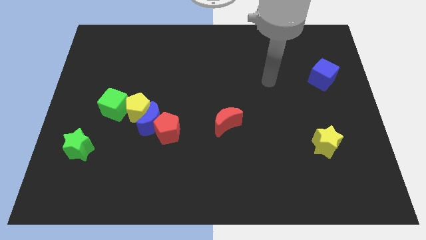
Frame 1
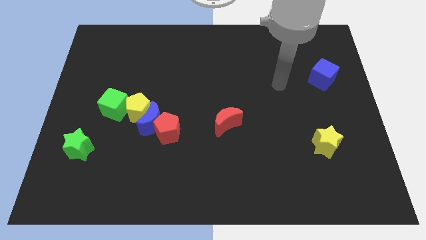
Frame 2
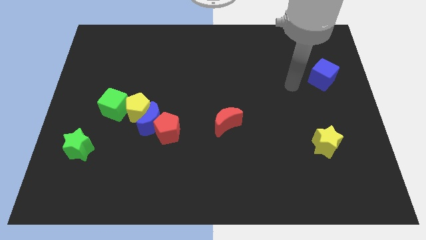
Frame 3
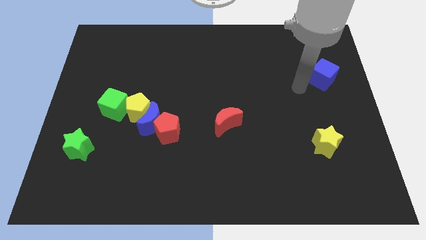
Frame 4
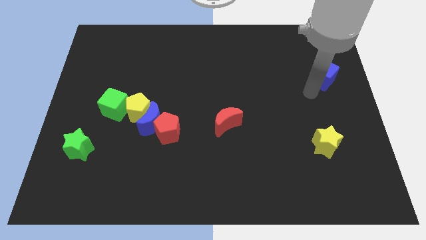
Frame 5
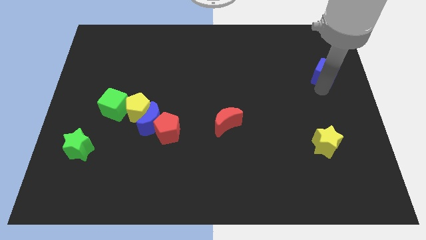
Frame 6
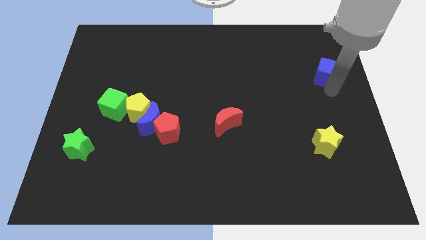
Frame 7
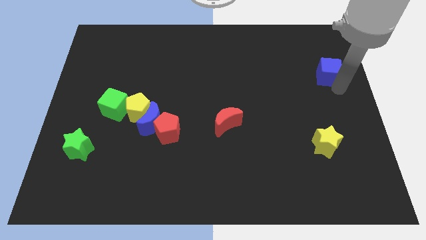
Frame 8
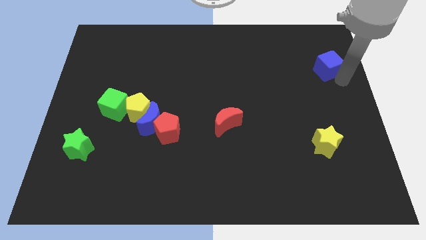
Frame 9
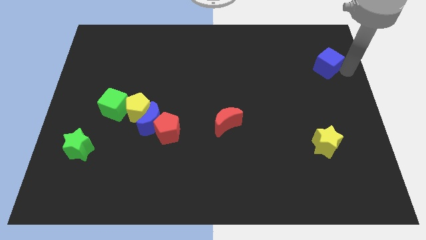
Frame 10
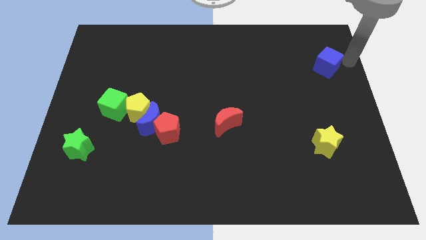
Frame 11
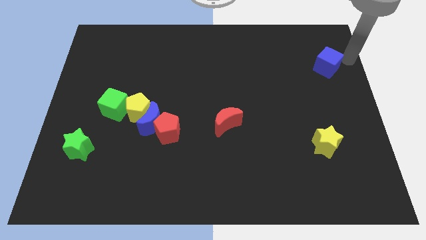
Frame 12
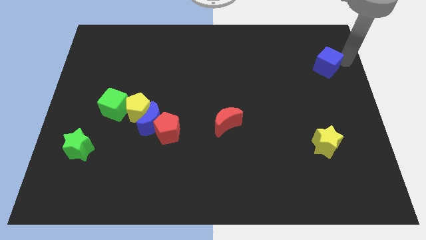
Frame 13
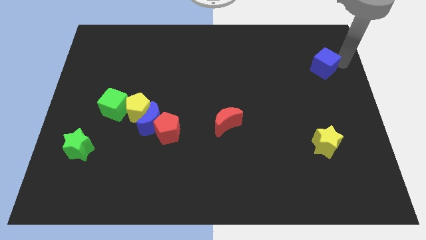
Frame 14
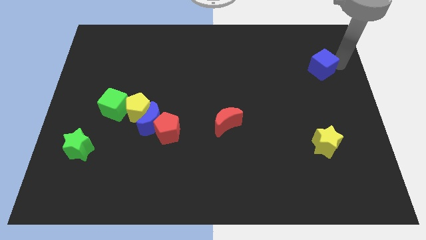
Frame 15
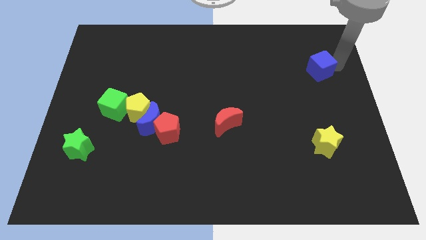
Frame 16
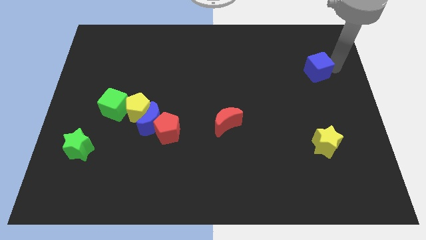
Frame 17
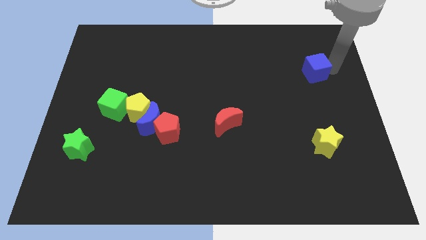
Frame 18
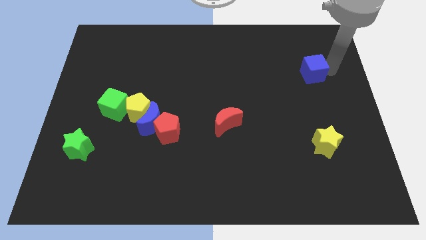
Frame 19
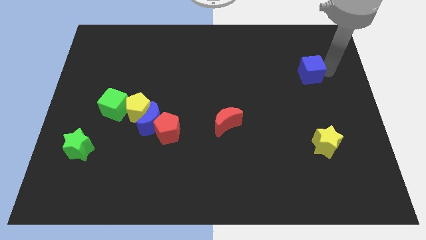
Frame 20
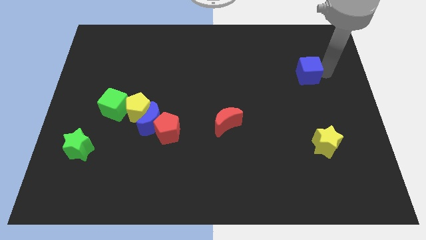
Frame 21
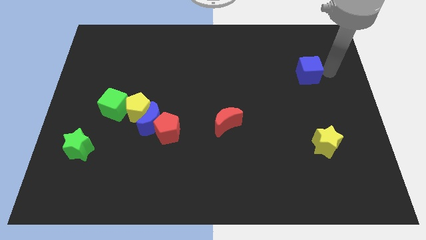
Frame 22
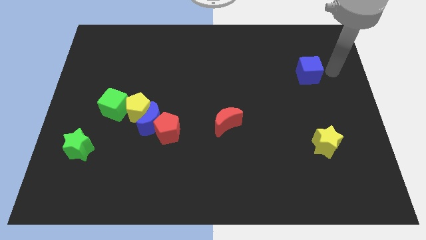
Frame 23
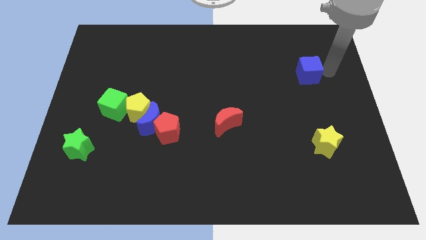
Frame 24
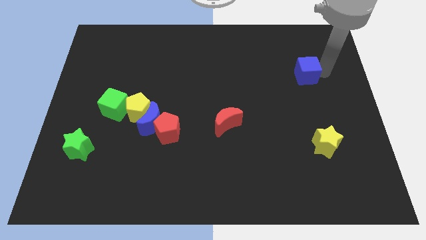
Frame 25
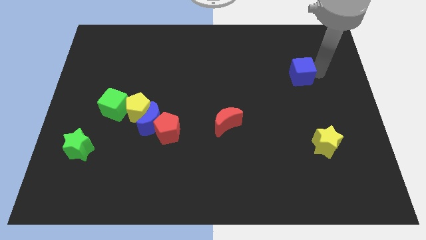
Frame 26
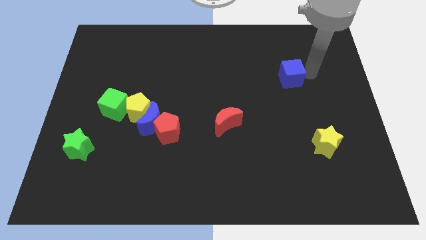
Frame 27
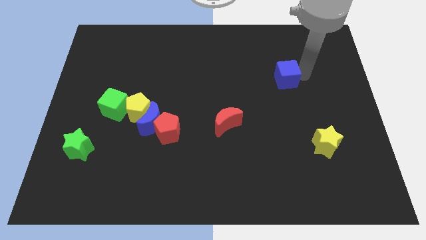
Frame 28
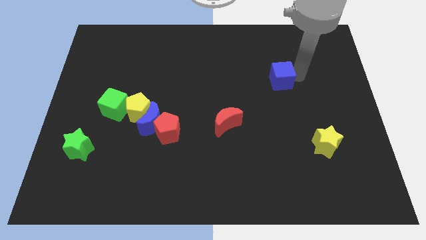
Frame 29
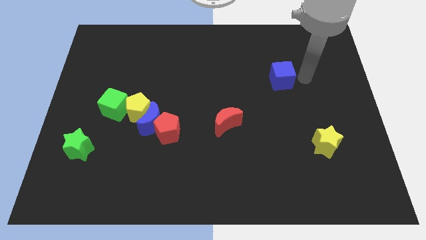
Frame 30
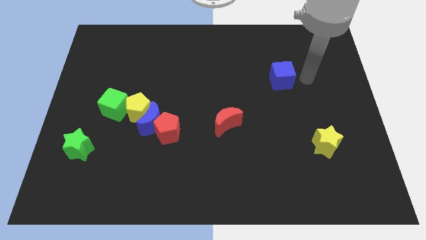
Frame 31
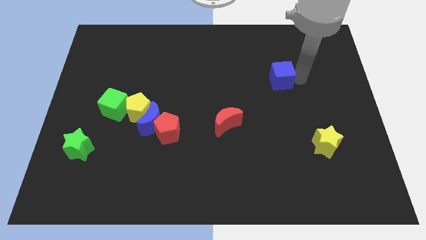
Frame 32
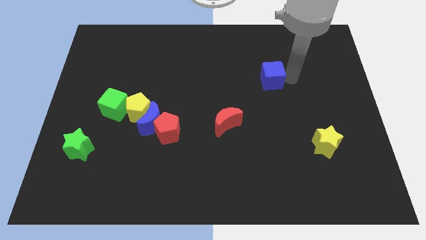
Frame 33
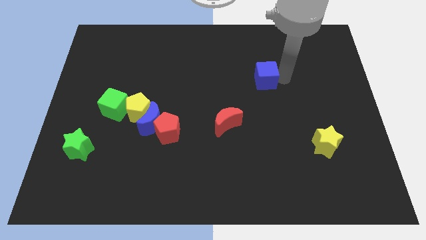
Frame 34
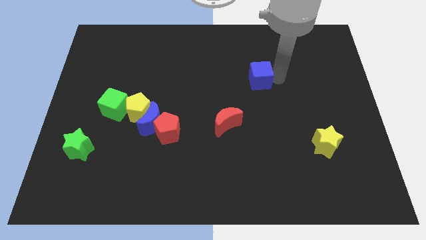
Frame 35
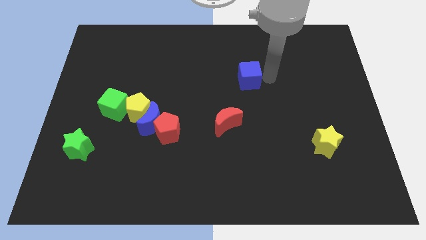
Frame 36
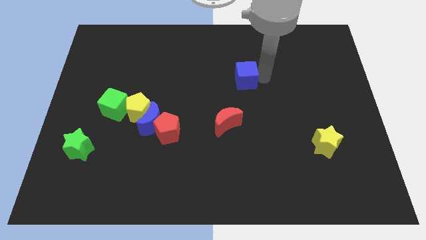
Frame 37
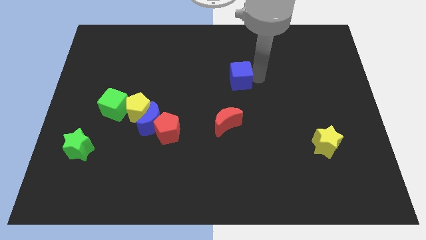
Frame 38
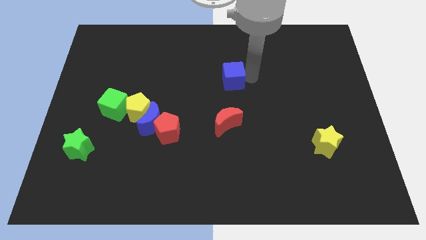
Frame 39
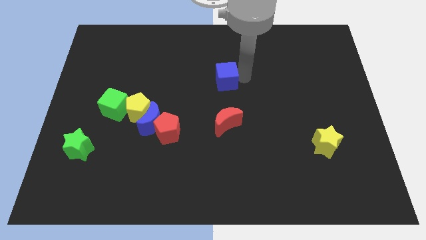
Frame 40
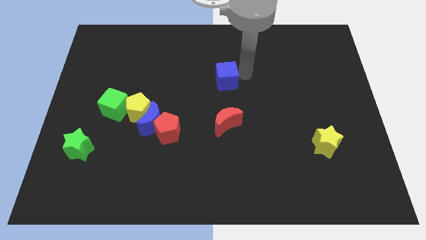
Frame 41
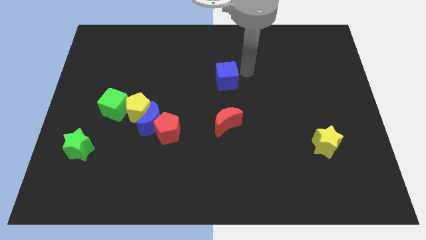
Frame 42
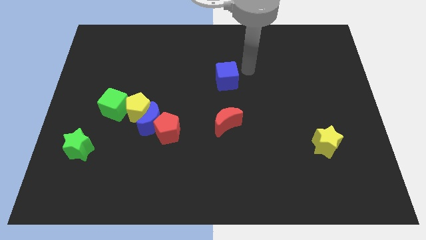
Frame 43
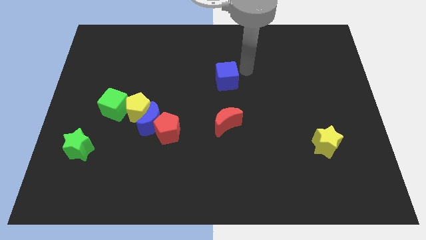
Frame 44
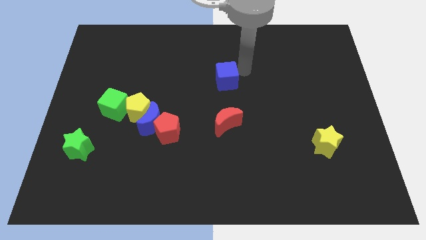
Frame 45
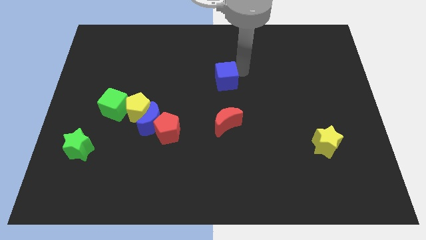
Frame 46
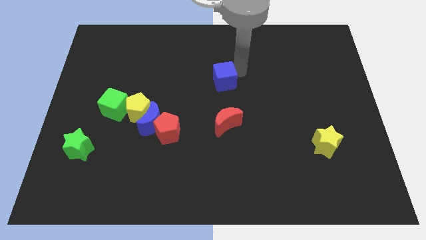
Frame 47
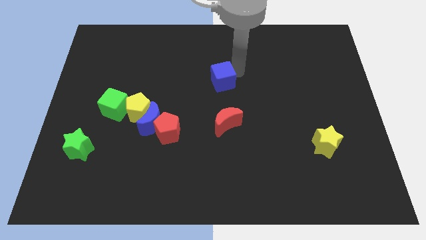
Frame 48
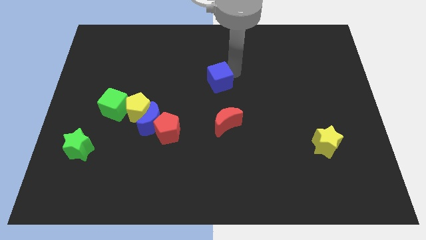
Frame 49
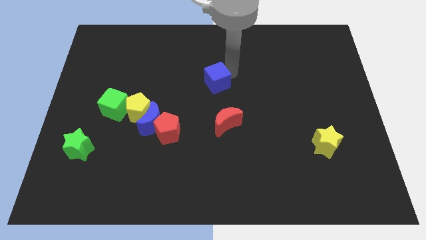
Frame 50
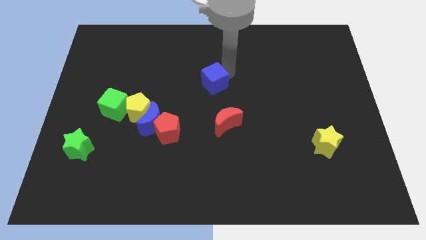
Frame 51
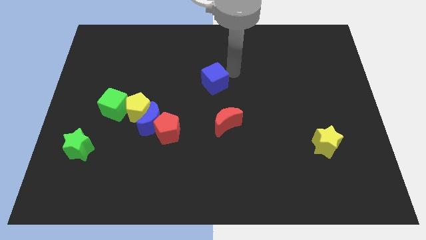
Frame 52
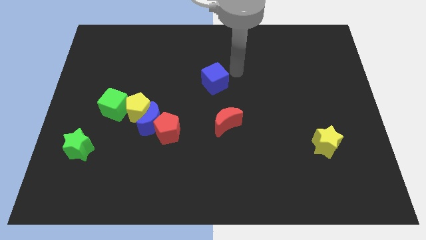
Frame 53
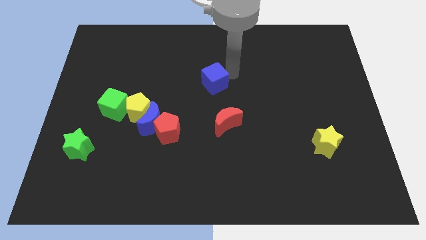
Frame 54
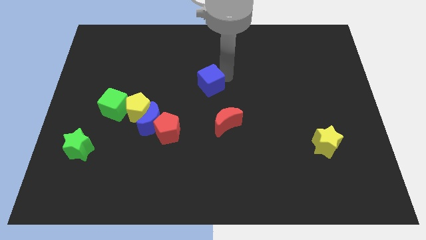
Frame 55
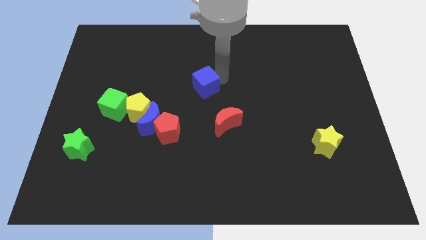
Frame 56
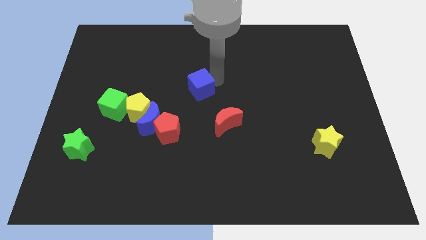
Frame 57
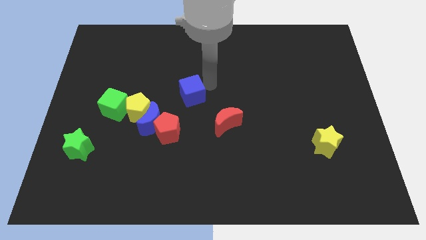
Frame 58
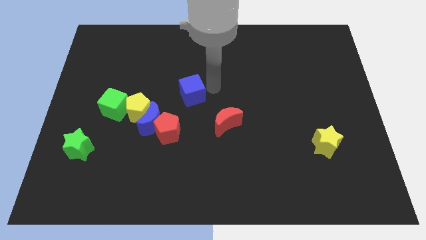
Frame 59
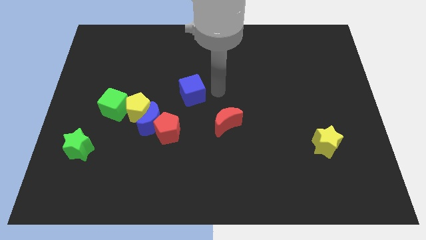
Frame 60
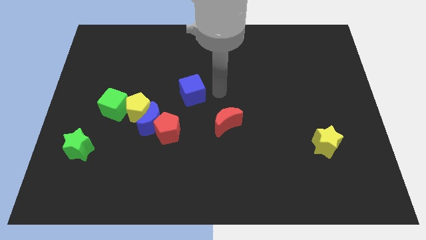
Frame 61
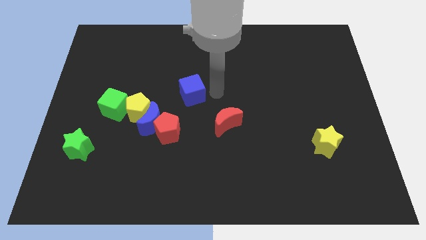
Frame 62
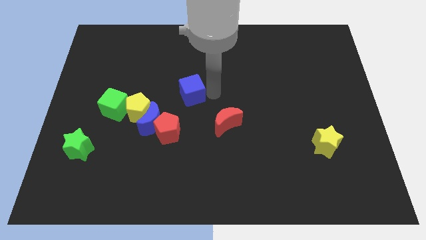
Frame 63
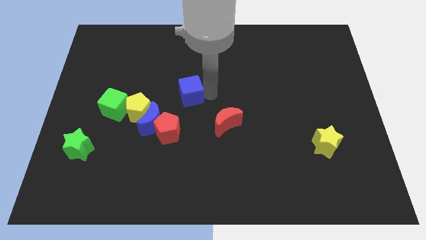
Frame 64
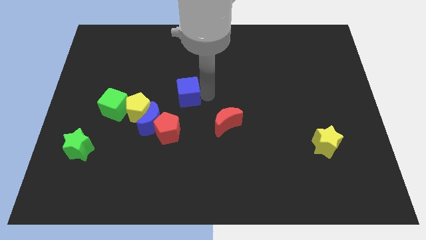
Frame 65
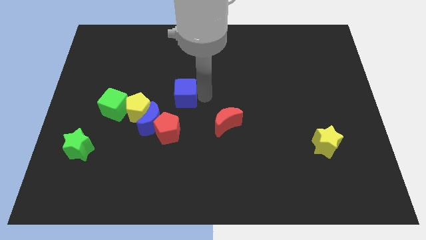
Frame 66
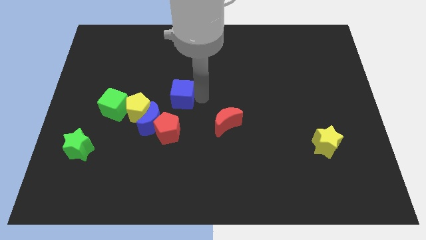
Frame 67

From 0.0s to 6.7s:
push the blue cube diagonally up and to the right of the yellow pentagon

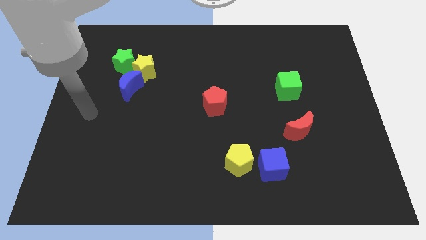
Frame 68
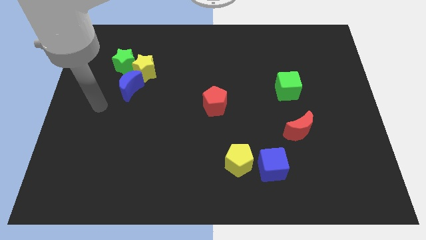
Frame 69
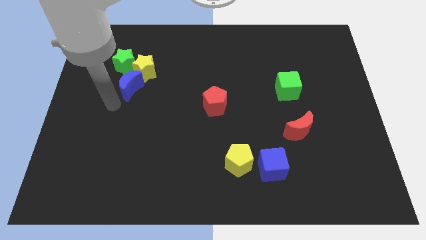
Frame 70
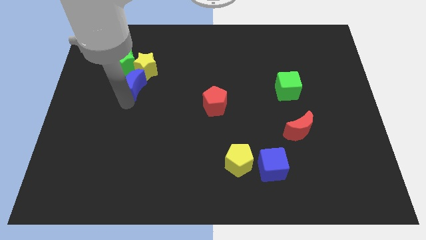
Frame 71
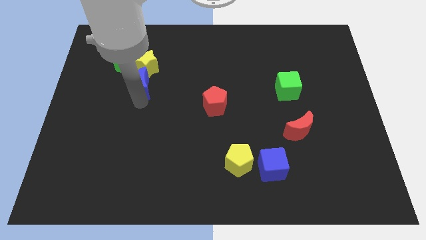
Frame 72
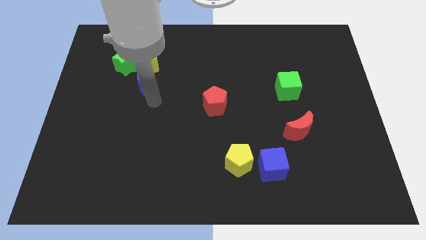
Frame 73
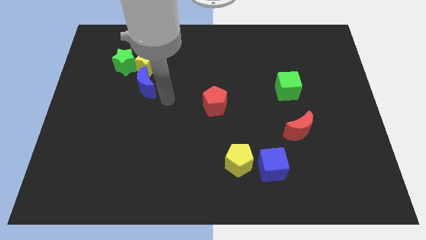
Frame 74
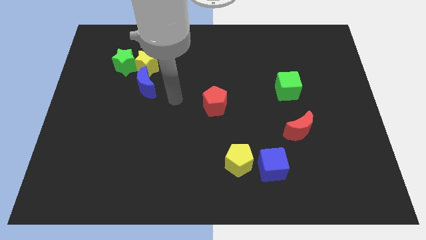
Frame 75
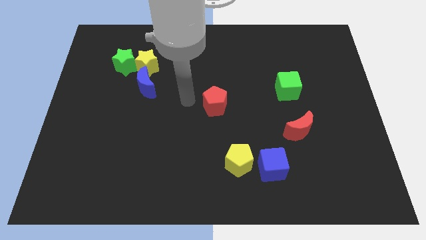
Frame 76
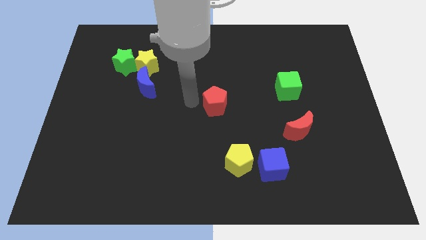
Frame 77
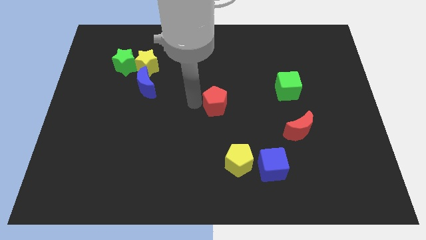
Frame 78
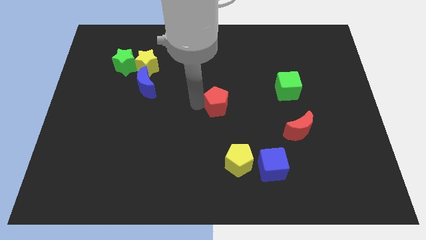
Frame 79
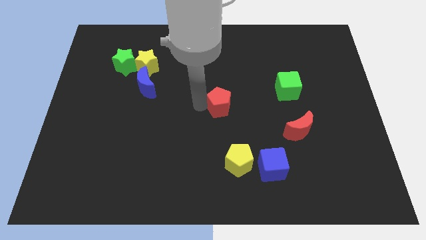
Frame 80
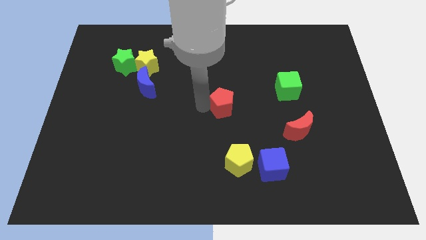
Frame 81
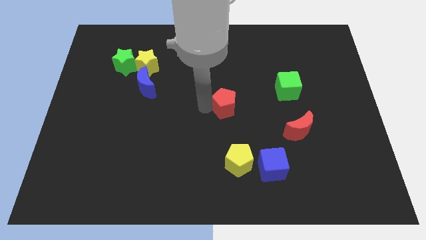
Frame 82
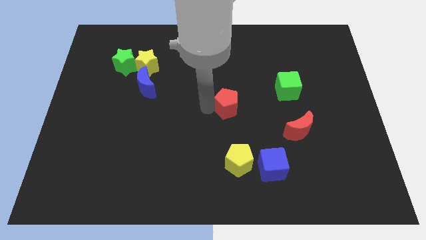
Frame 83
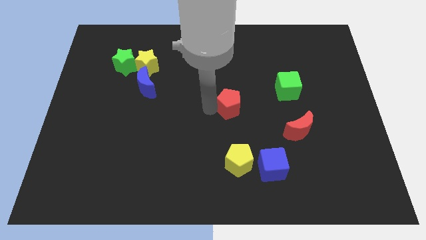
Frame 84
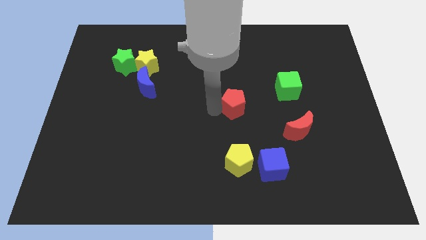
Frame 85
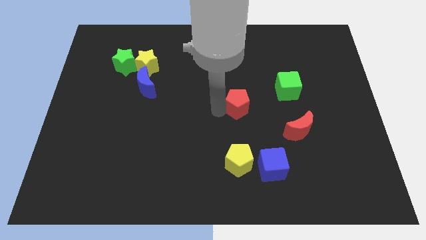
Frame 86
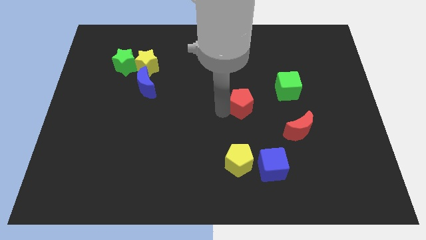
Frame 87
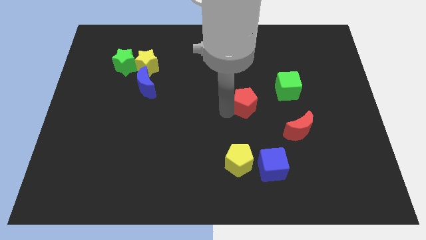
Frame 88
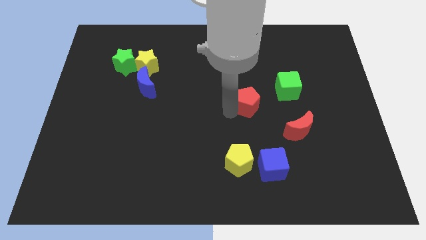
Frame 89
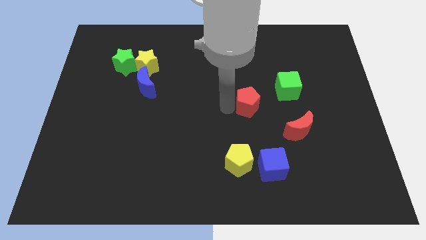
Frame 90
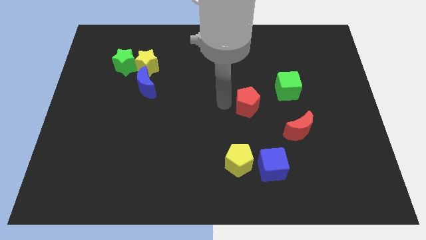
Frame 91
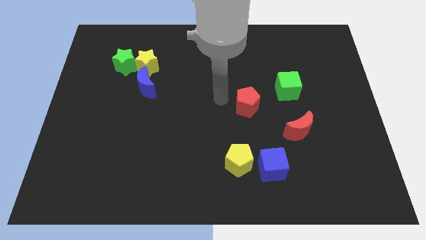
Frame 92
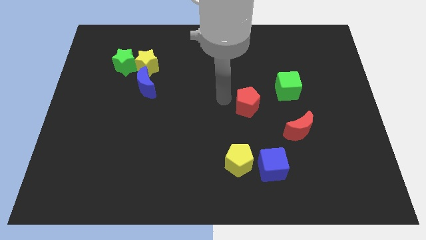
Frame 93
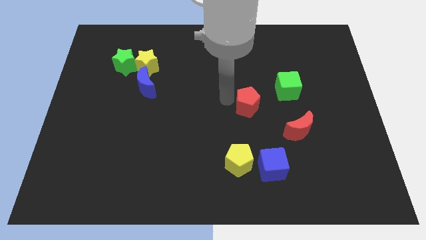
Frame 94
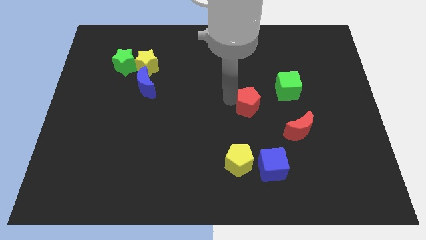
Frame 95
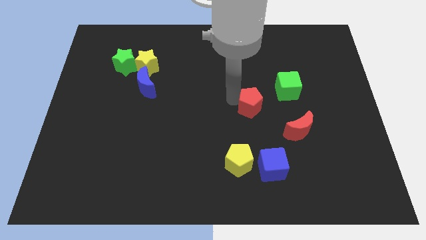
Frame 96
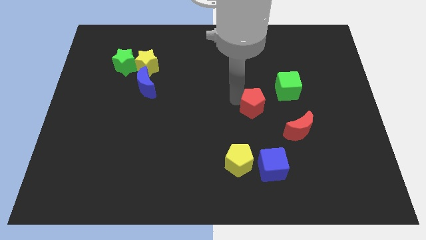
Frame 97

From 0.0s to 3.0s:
move the red pentagon diagonally up and to the left of the red moon
